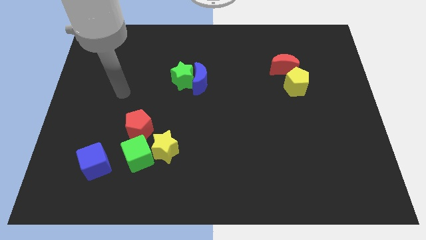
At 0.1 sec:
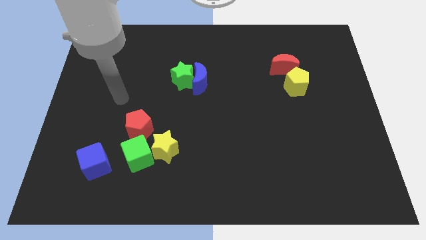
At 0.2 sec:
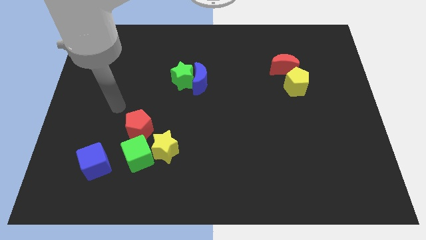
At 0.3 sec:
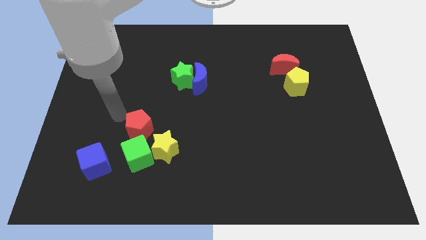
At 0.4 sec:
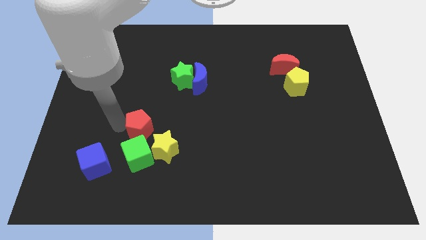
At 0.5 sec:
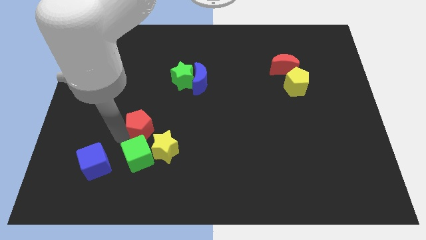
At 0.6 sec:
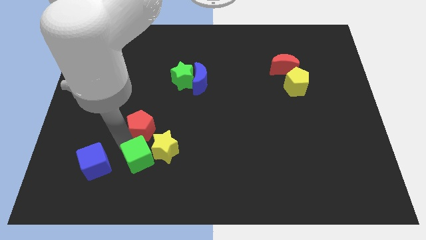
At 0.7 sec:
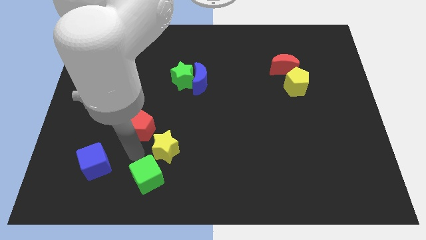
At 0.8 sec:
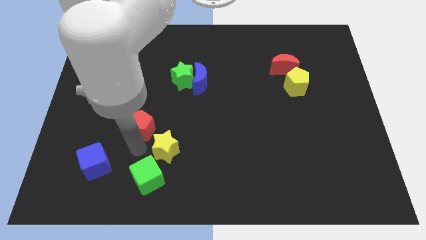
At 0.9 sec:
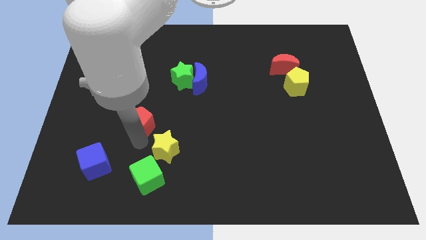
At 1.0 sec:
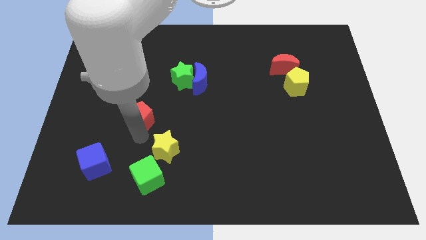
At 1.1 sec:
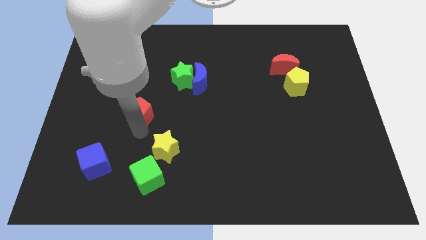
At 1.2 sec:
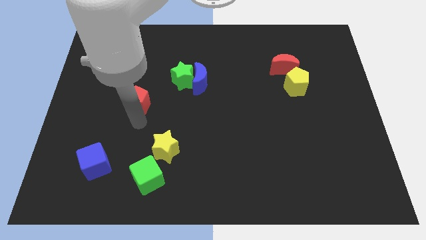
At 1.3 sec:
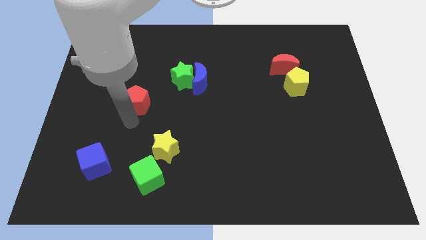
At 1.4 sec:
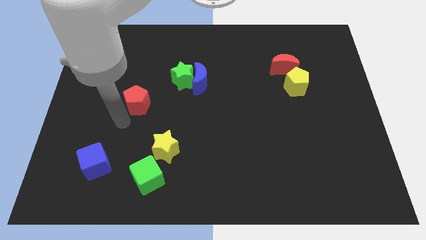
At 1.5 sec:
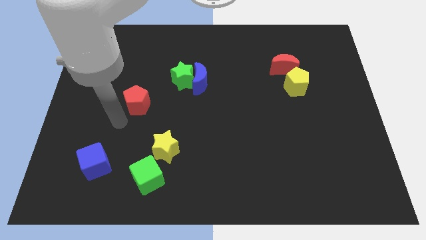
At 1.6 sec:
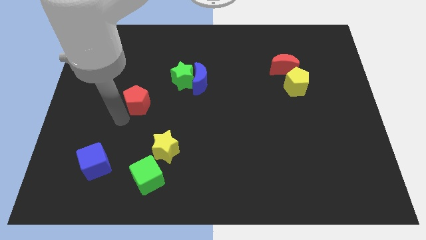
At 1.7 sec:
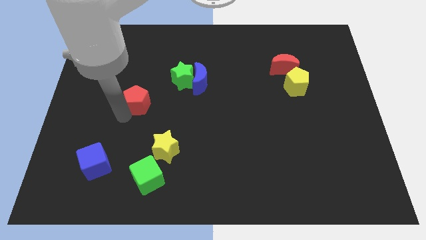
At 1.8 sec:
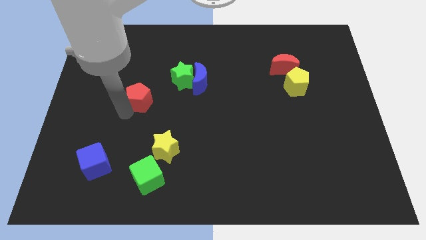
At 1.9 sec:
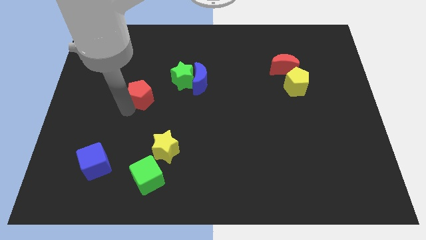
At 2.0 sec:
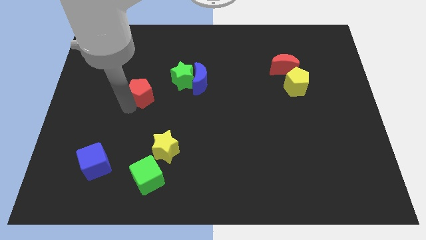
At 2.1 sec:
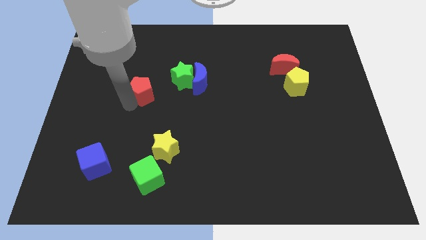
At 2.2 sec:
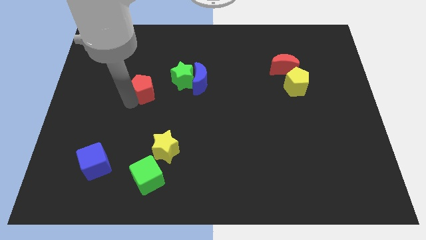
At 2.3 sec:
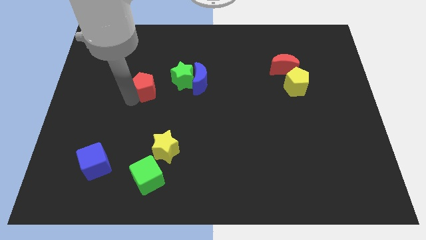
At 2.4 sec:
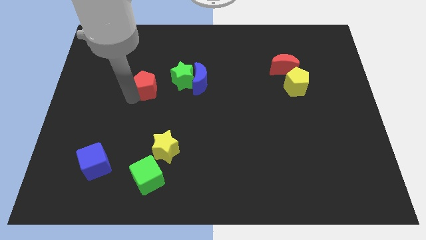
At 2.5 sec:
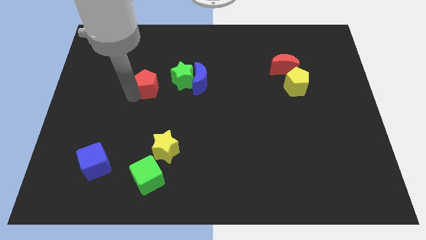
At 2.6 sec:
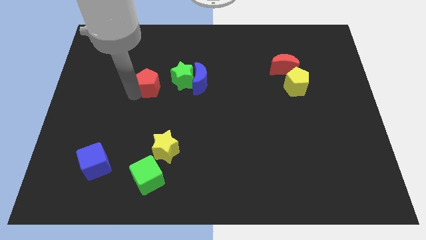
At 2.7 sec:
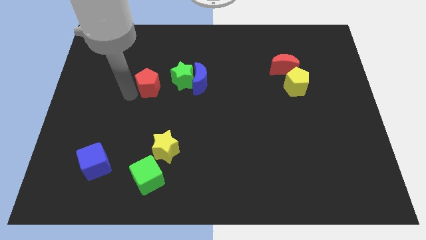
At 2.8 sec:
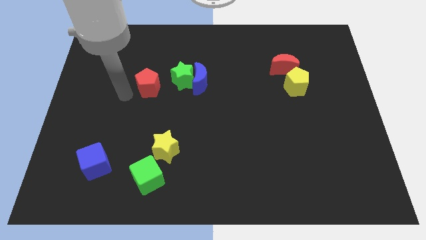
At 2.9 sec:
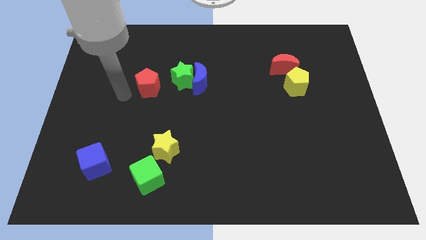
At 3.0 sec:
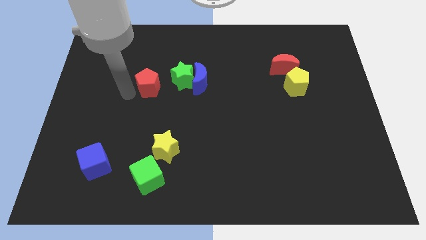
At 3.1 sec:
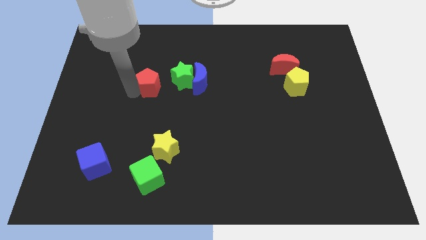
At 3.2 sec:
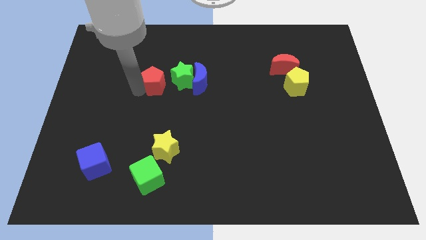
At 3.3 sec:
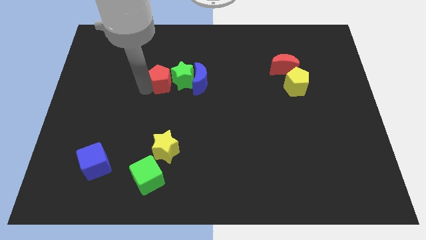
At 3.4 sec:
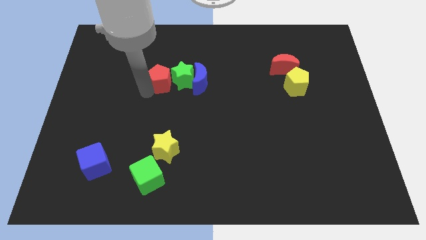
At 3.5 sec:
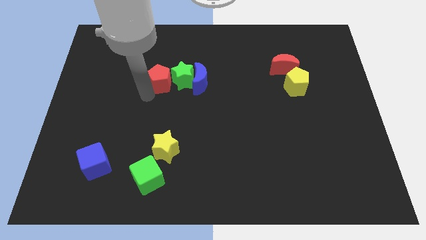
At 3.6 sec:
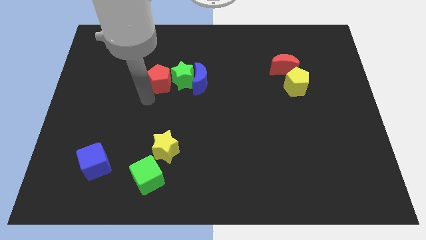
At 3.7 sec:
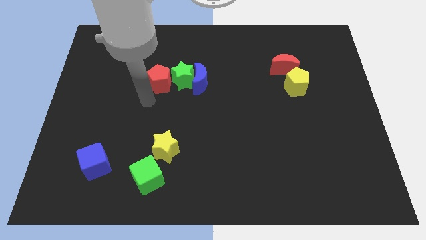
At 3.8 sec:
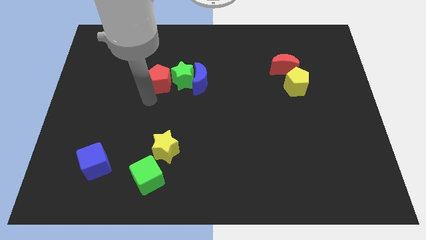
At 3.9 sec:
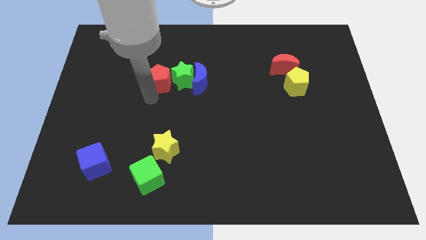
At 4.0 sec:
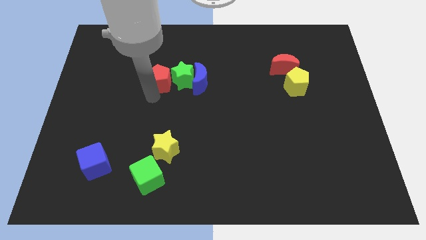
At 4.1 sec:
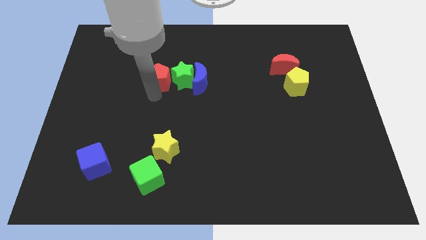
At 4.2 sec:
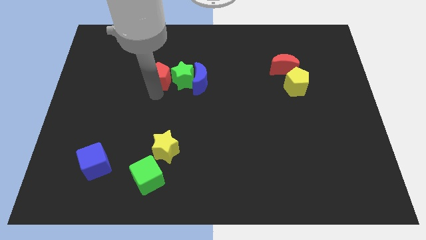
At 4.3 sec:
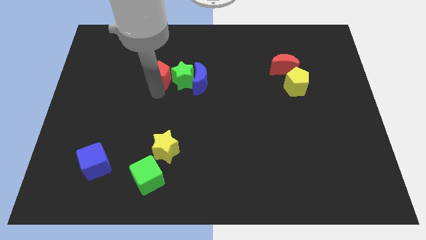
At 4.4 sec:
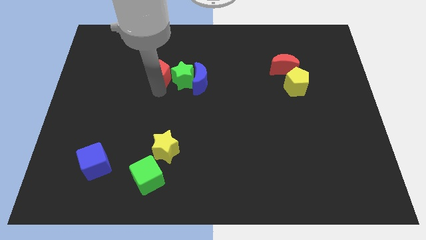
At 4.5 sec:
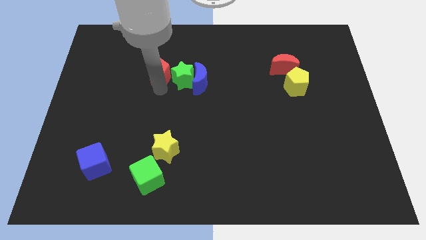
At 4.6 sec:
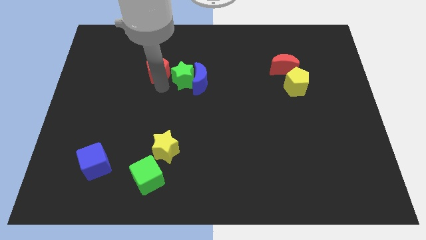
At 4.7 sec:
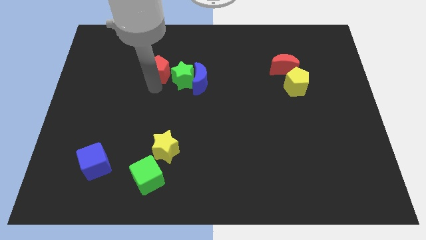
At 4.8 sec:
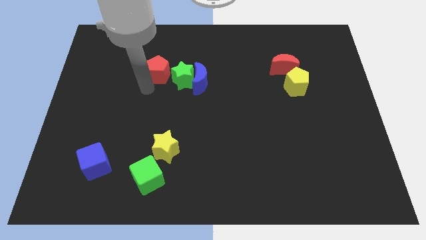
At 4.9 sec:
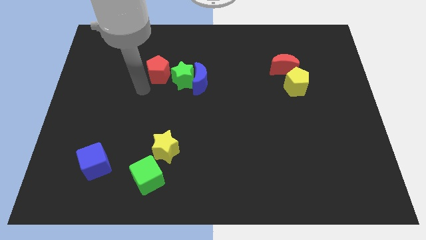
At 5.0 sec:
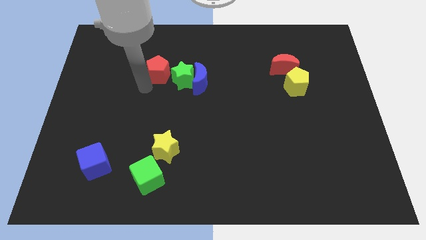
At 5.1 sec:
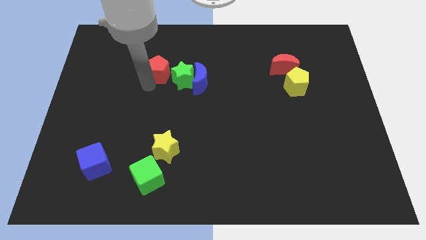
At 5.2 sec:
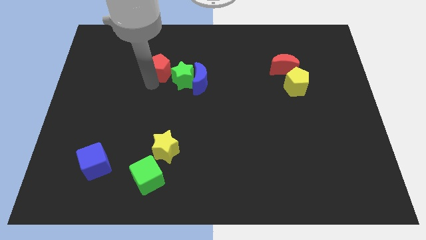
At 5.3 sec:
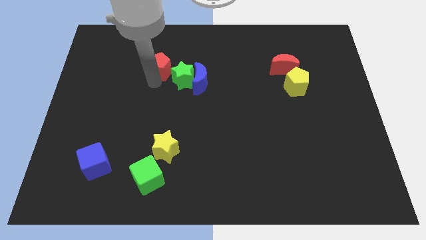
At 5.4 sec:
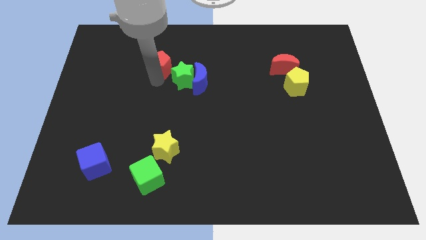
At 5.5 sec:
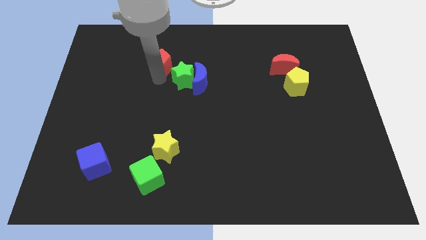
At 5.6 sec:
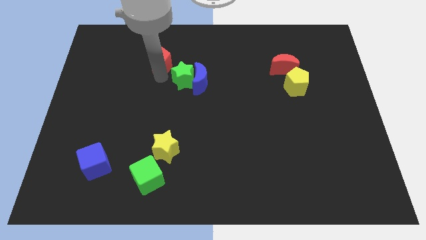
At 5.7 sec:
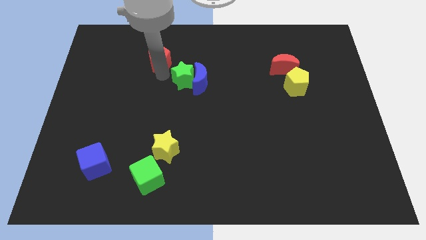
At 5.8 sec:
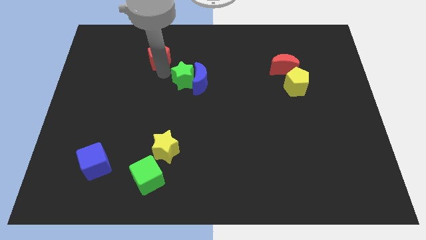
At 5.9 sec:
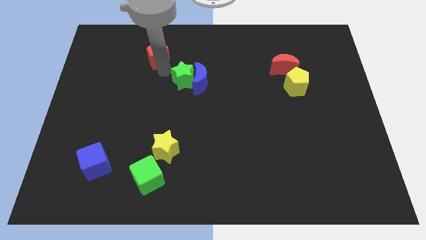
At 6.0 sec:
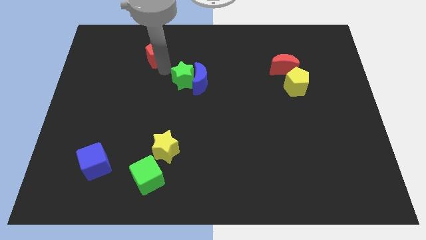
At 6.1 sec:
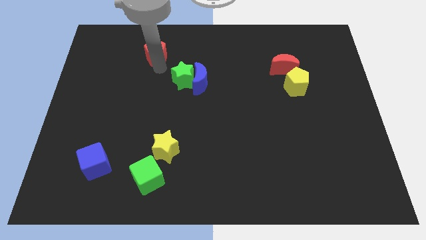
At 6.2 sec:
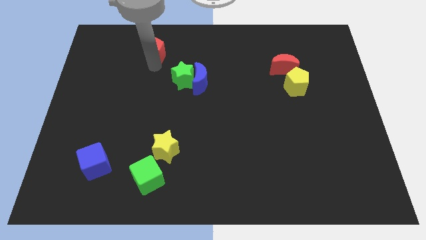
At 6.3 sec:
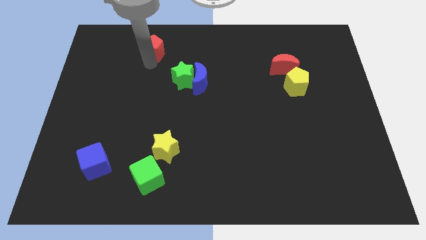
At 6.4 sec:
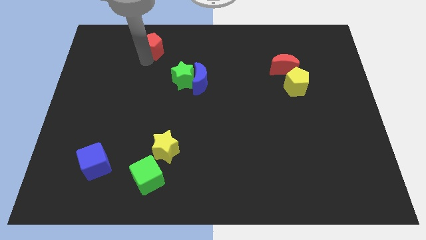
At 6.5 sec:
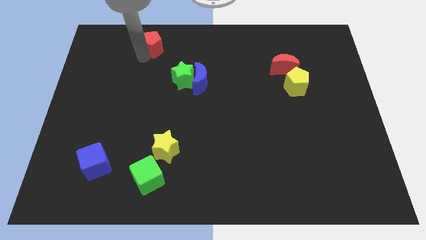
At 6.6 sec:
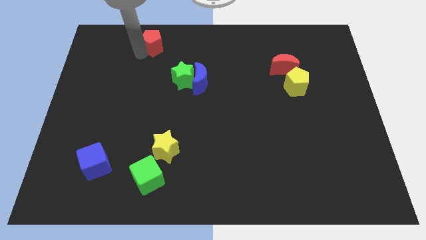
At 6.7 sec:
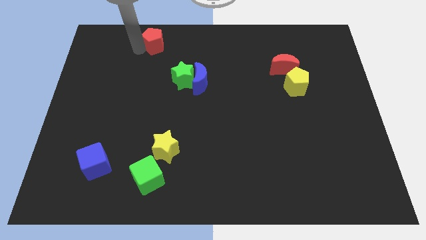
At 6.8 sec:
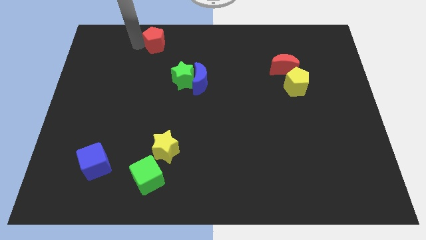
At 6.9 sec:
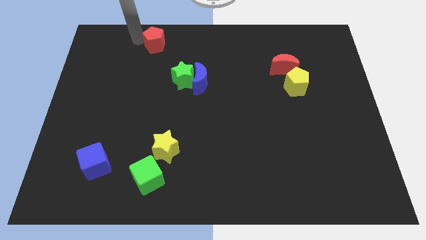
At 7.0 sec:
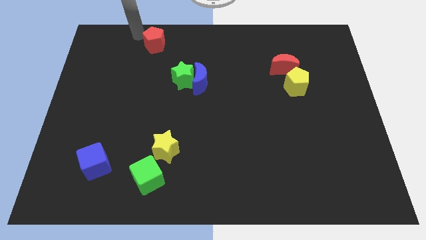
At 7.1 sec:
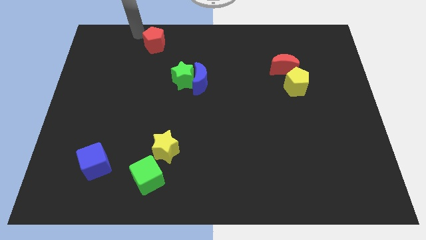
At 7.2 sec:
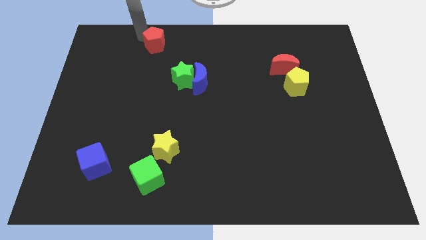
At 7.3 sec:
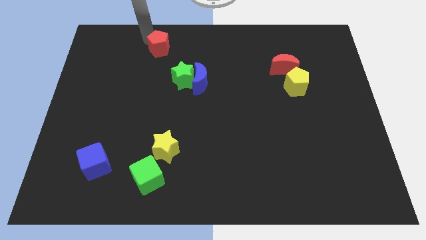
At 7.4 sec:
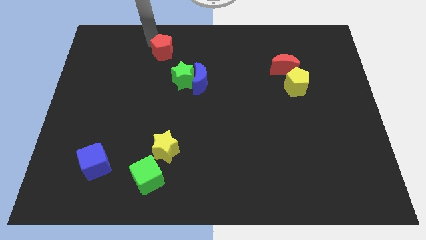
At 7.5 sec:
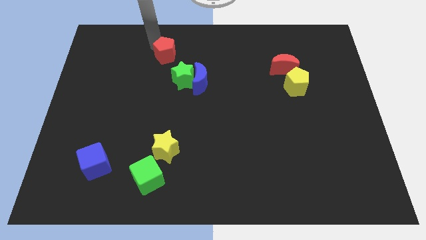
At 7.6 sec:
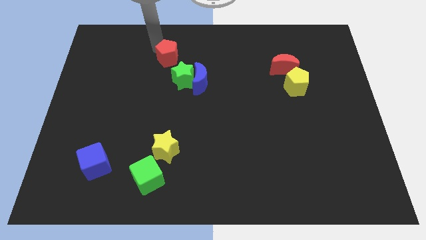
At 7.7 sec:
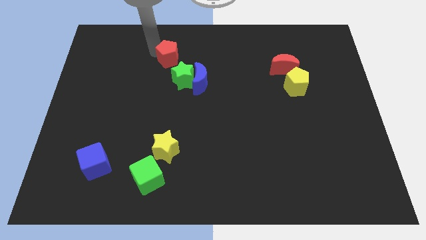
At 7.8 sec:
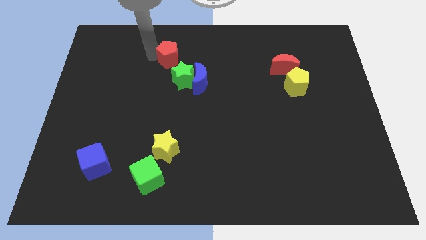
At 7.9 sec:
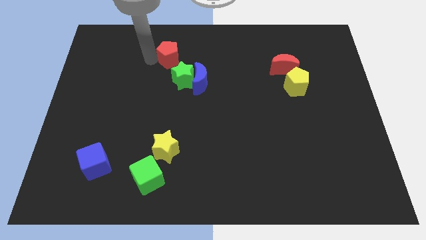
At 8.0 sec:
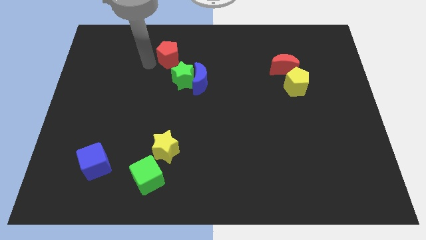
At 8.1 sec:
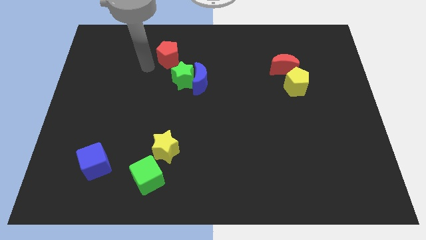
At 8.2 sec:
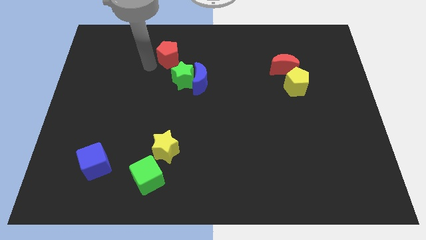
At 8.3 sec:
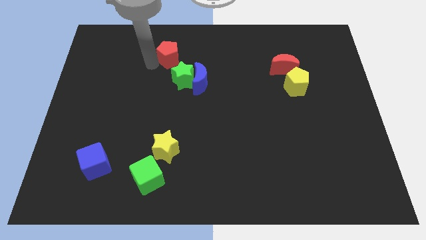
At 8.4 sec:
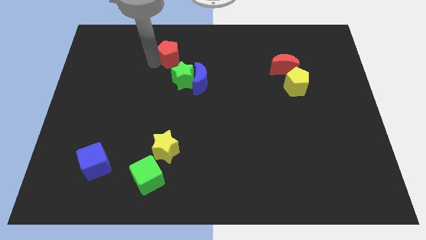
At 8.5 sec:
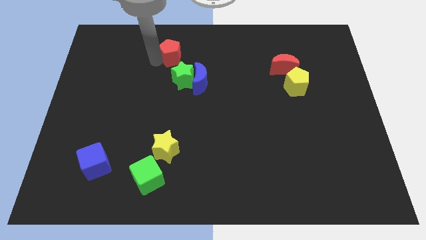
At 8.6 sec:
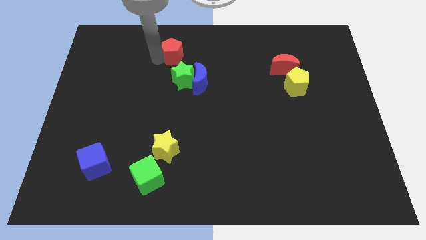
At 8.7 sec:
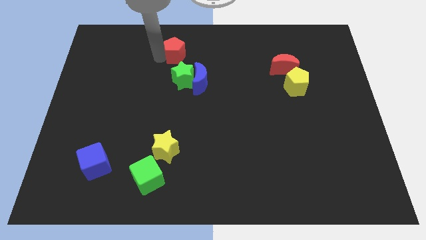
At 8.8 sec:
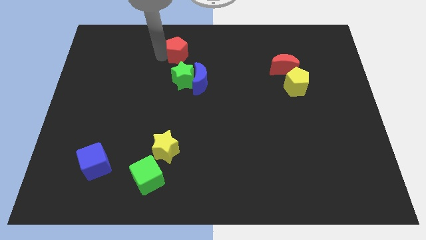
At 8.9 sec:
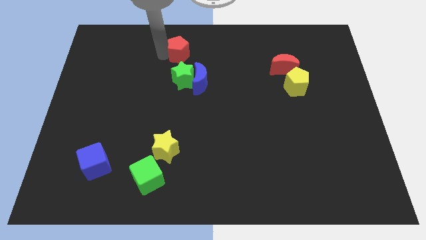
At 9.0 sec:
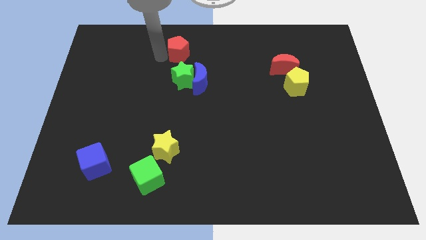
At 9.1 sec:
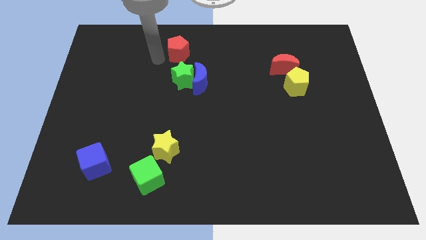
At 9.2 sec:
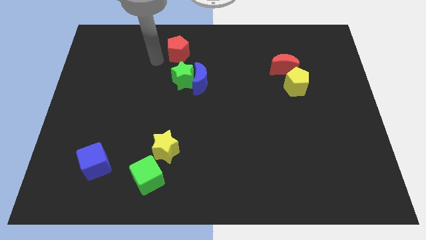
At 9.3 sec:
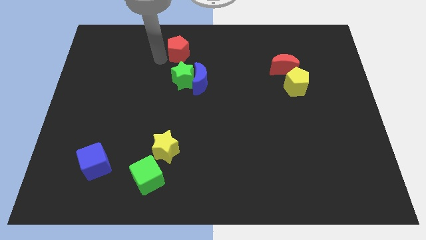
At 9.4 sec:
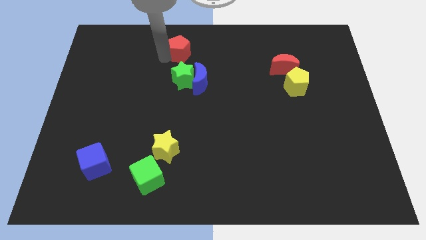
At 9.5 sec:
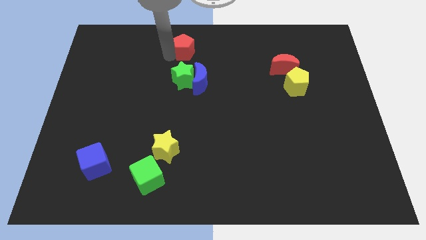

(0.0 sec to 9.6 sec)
slide the red pentagon to the top
